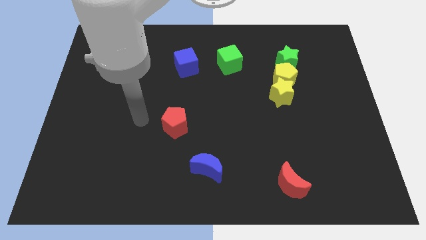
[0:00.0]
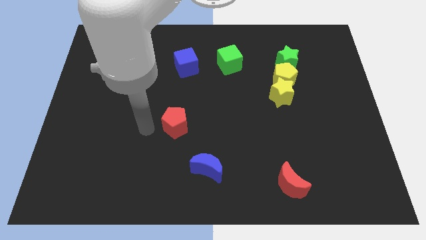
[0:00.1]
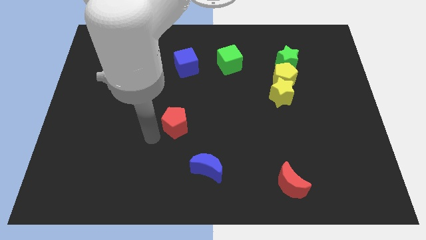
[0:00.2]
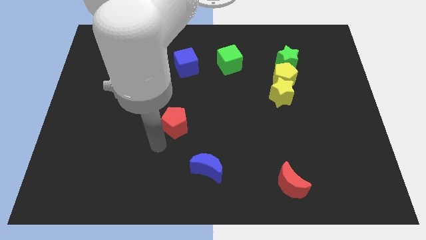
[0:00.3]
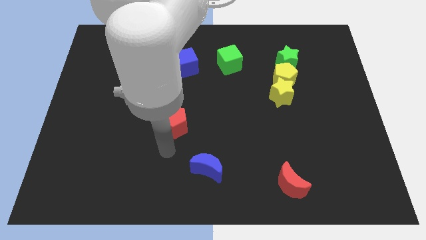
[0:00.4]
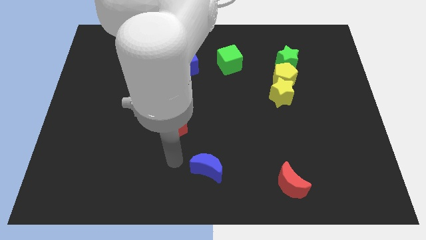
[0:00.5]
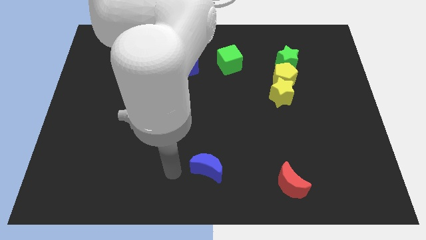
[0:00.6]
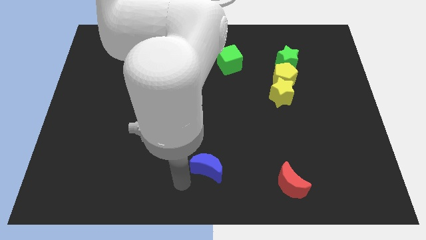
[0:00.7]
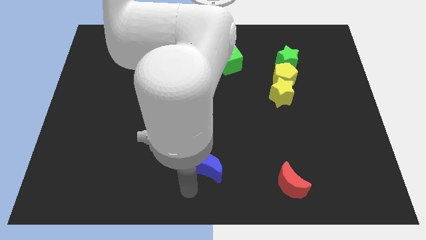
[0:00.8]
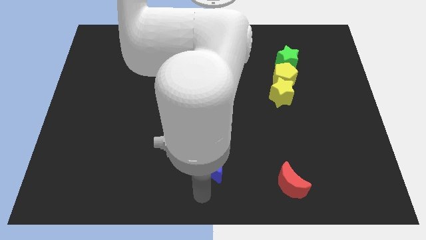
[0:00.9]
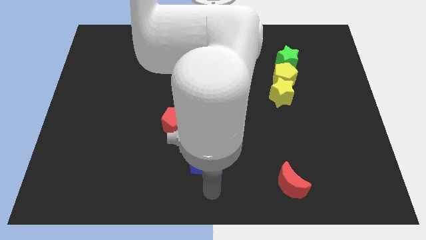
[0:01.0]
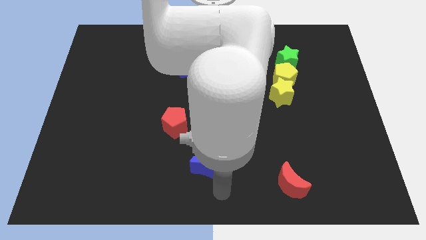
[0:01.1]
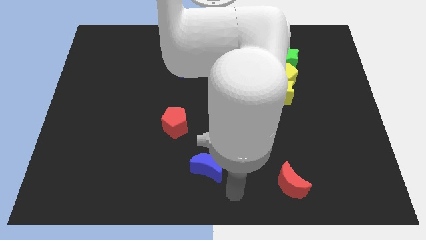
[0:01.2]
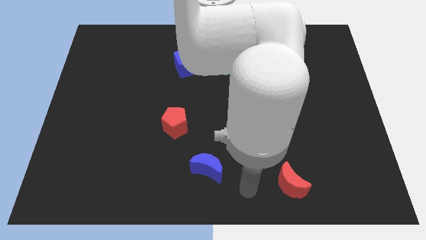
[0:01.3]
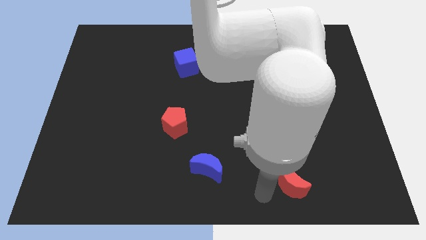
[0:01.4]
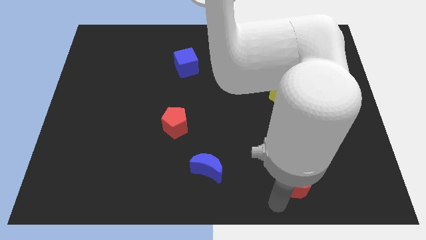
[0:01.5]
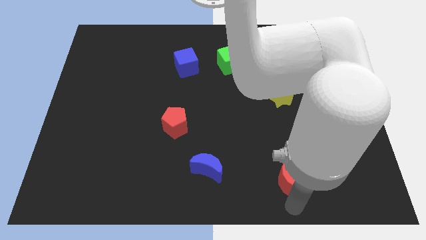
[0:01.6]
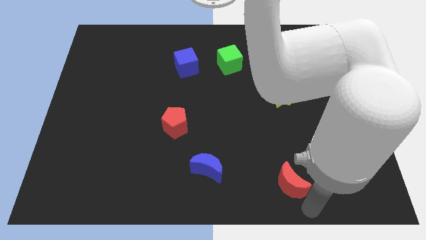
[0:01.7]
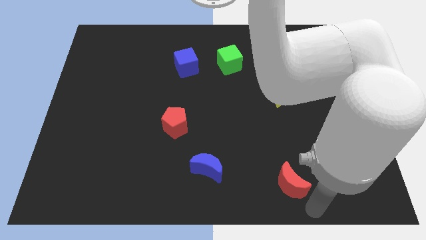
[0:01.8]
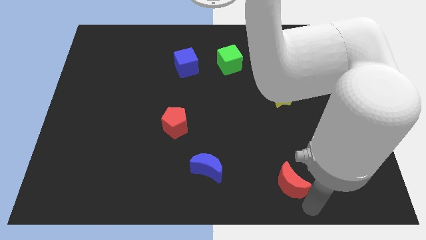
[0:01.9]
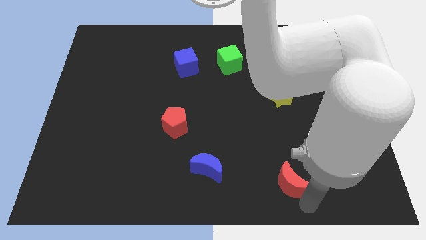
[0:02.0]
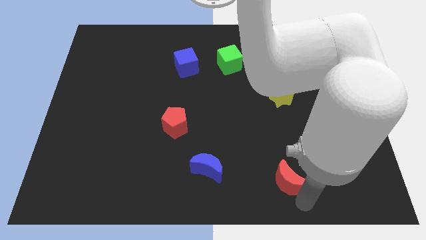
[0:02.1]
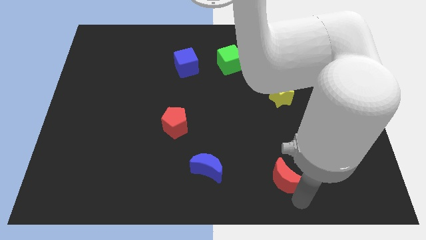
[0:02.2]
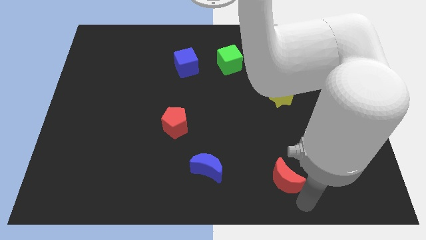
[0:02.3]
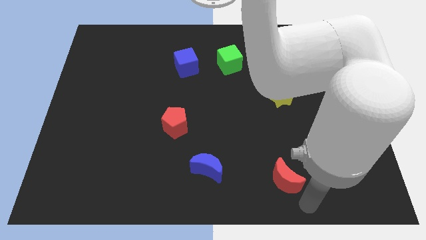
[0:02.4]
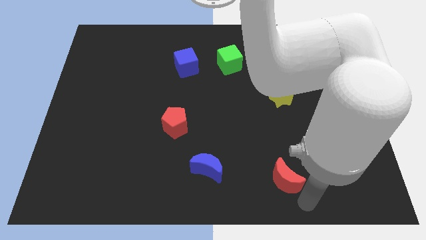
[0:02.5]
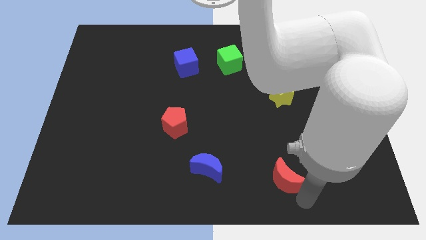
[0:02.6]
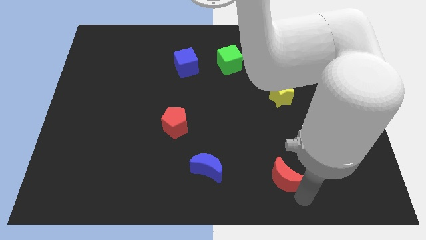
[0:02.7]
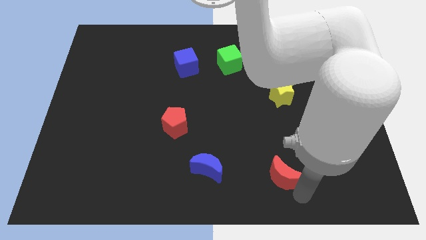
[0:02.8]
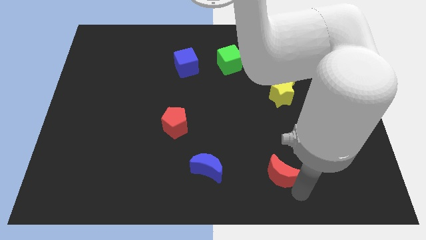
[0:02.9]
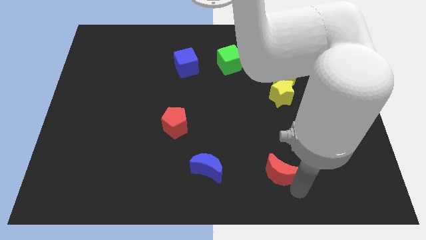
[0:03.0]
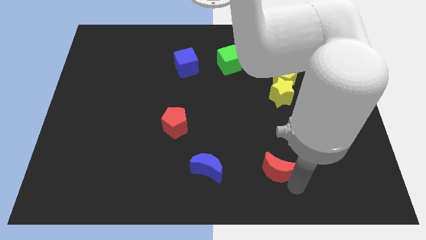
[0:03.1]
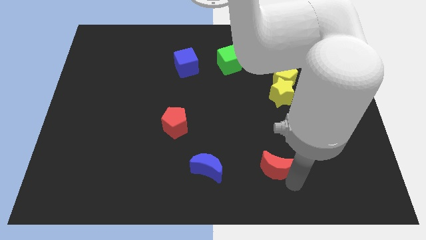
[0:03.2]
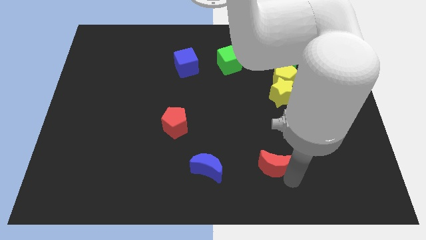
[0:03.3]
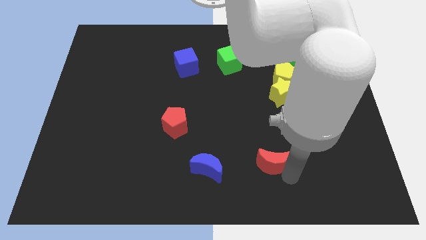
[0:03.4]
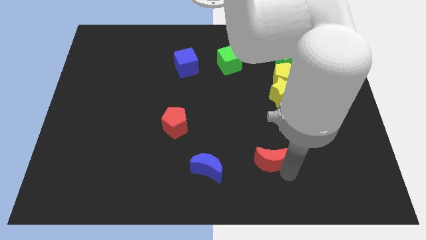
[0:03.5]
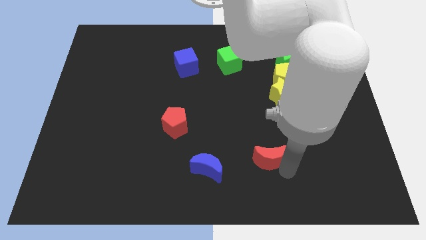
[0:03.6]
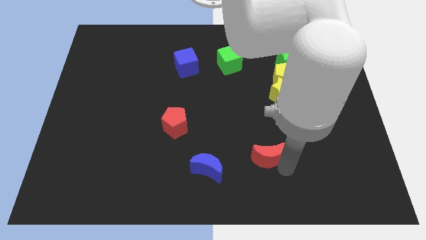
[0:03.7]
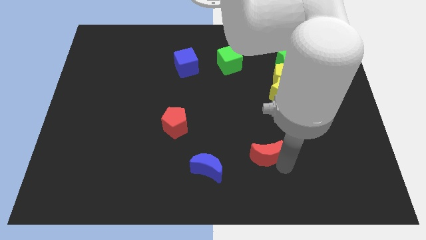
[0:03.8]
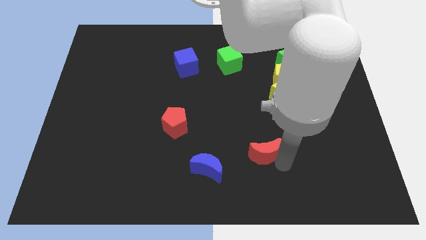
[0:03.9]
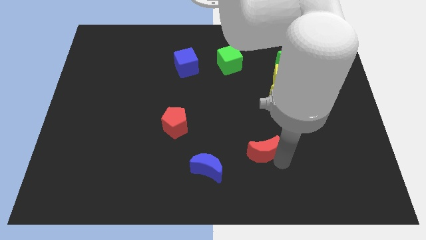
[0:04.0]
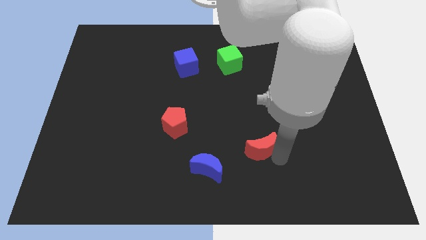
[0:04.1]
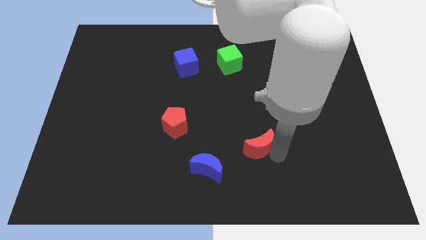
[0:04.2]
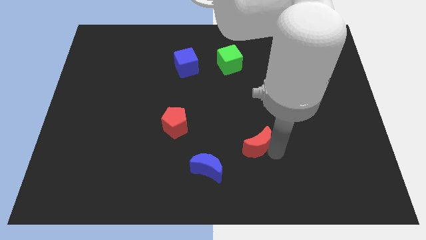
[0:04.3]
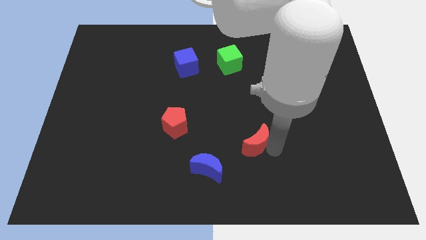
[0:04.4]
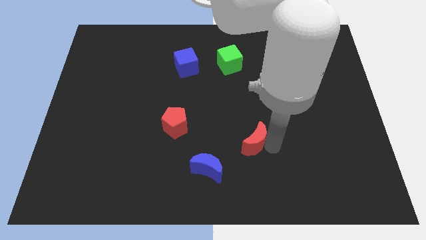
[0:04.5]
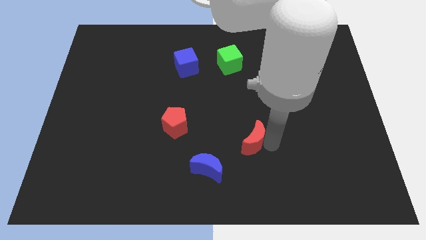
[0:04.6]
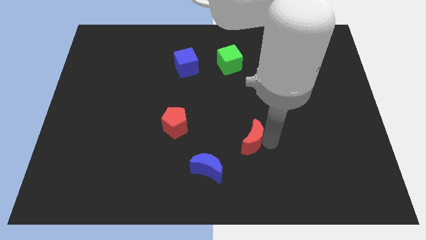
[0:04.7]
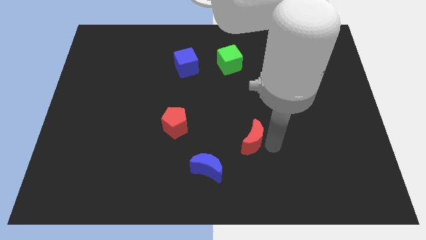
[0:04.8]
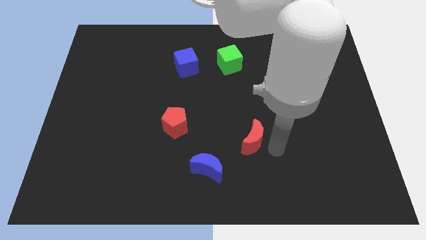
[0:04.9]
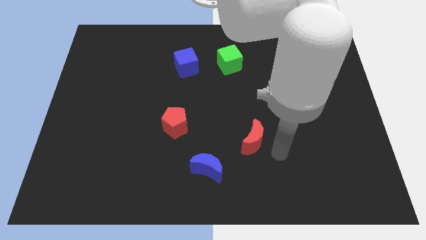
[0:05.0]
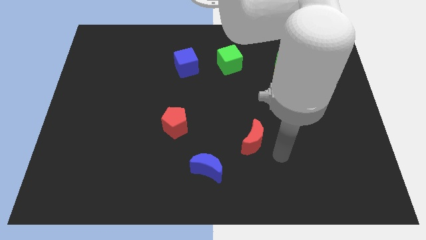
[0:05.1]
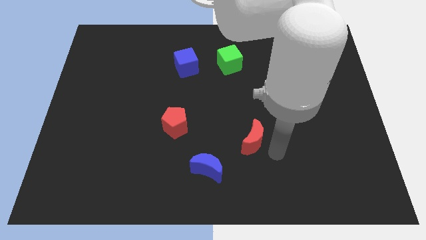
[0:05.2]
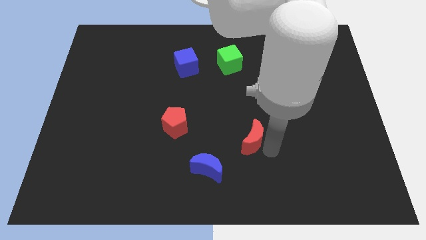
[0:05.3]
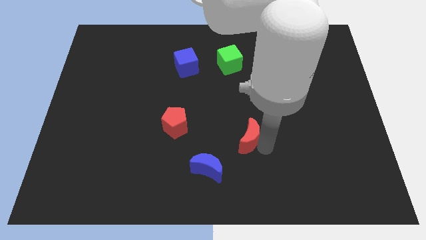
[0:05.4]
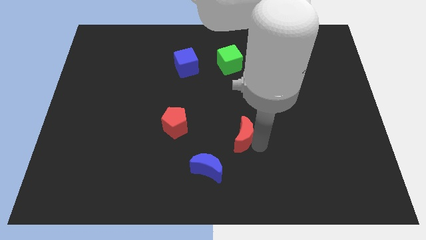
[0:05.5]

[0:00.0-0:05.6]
slide the red moon to the center
